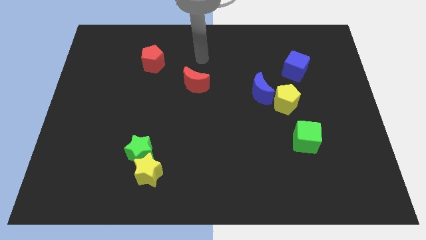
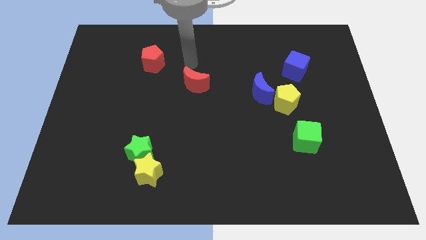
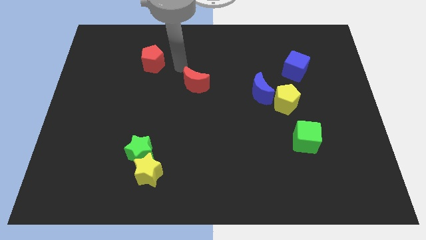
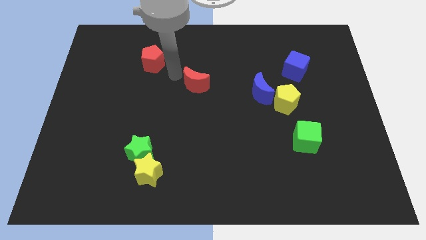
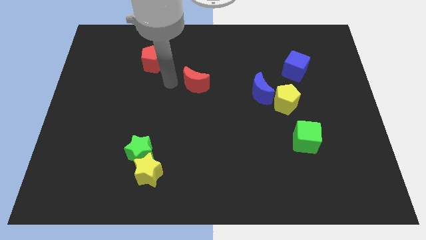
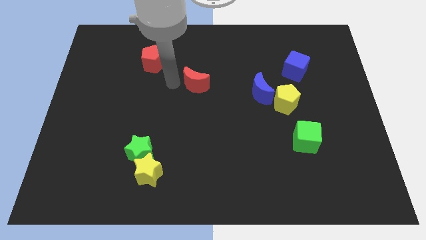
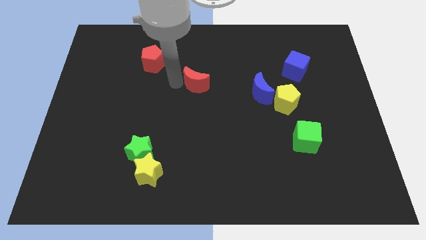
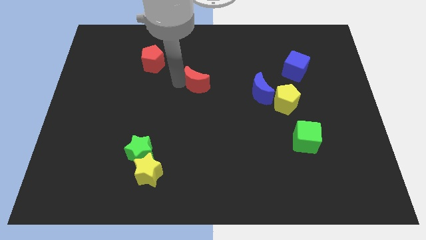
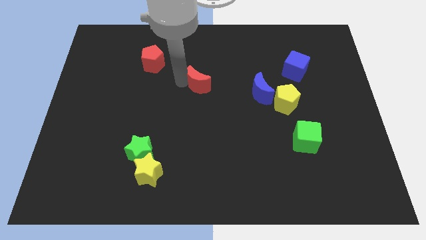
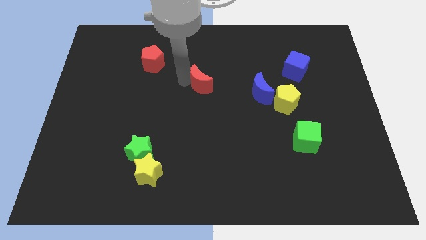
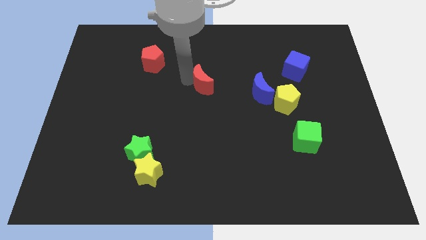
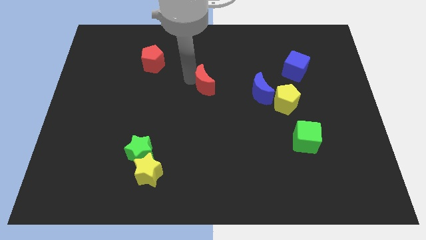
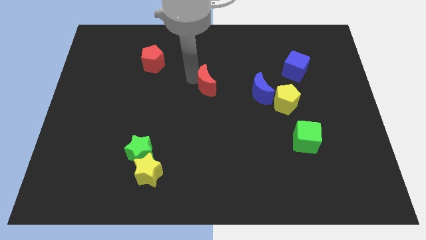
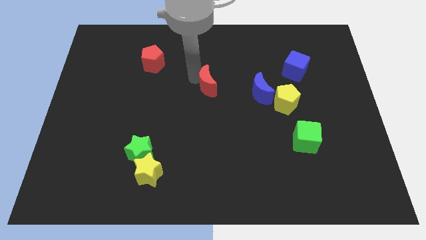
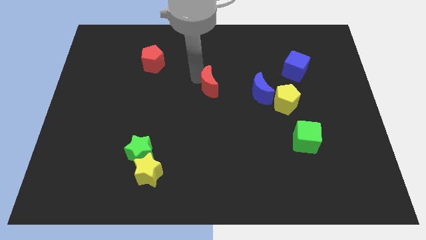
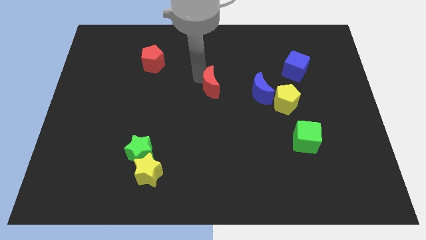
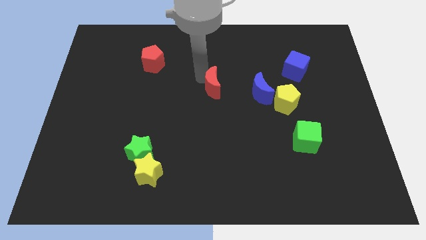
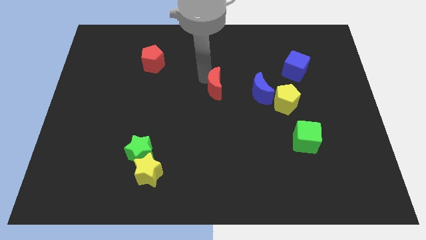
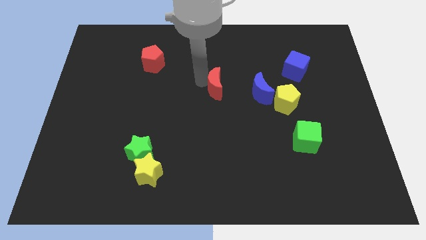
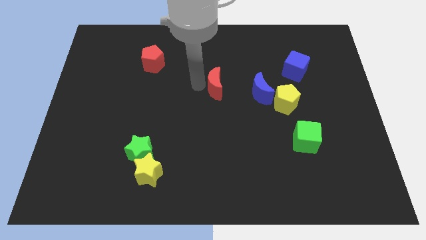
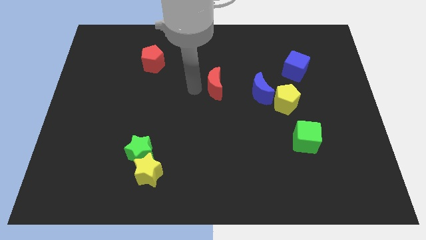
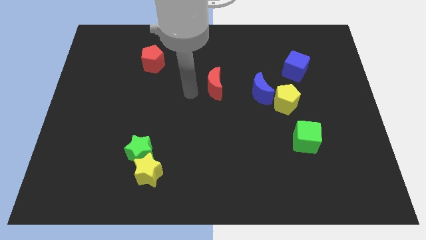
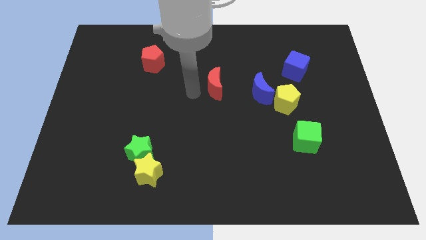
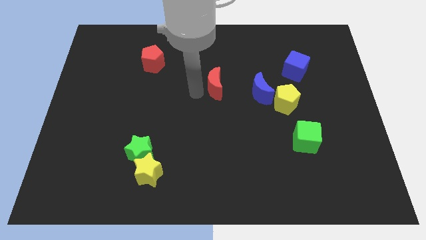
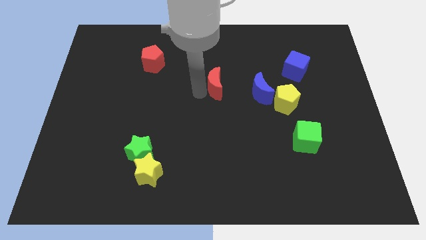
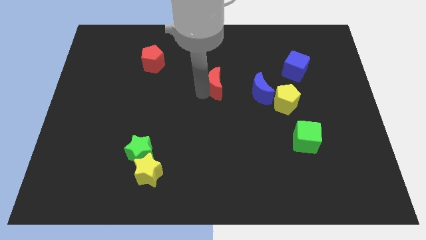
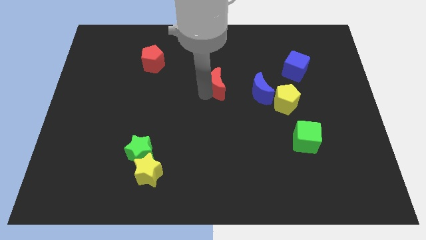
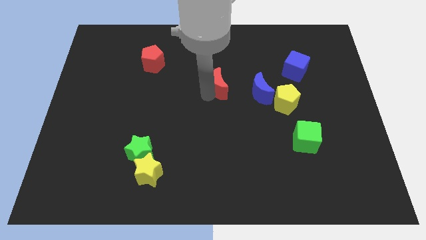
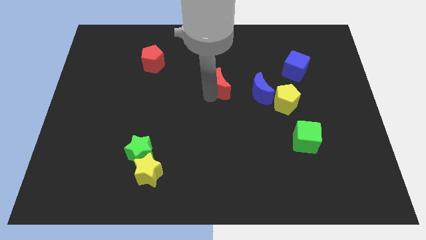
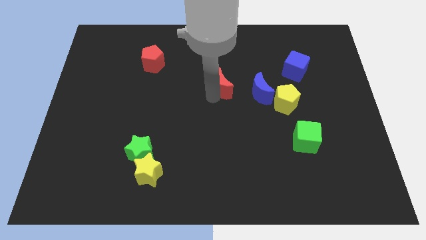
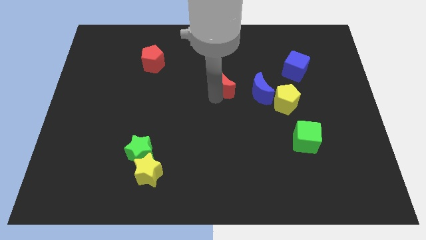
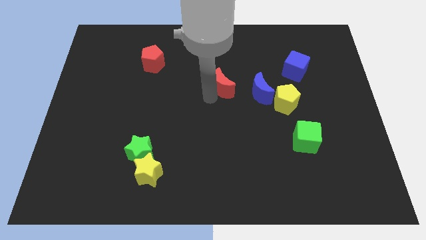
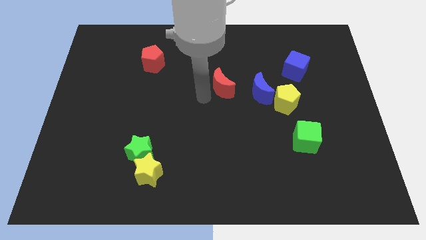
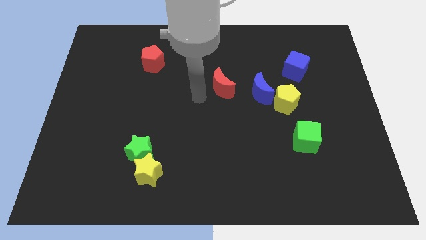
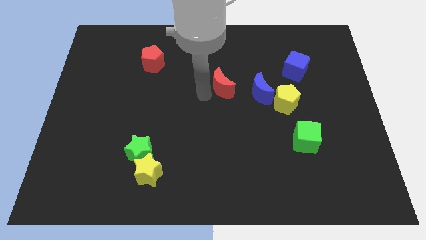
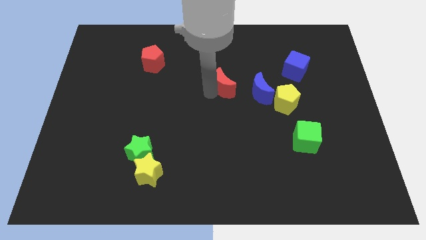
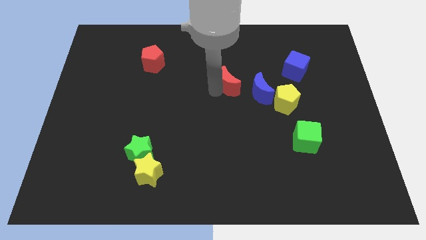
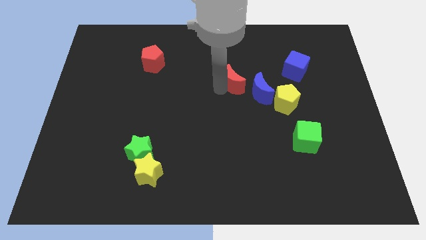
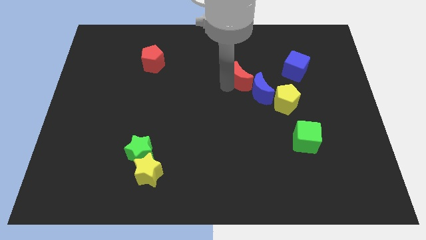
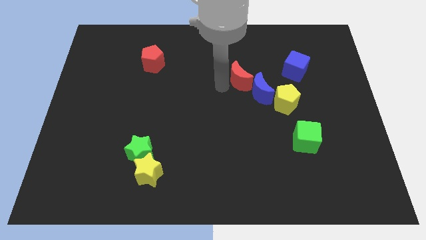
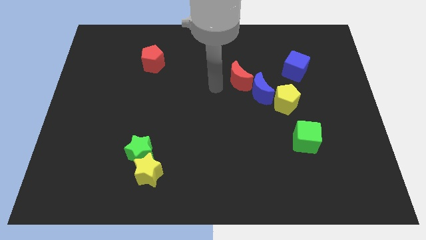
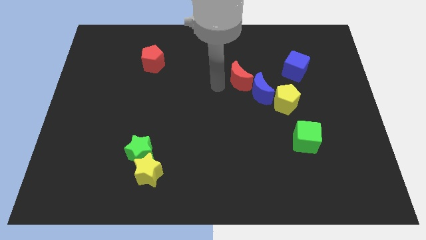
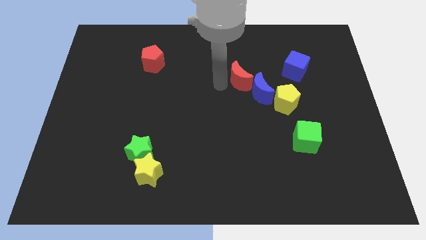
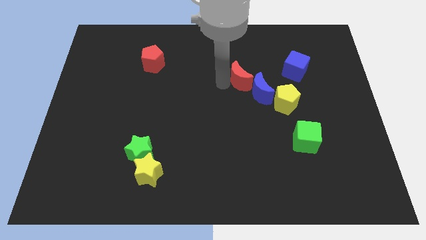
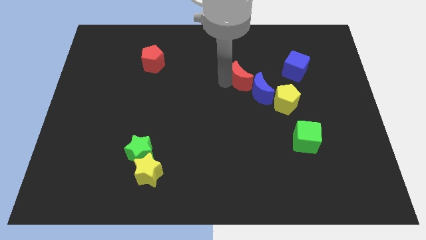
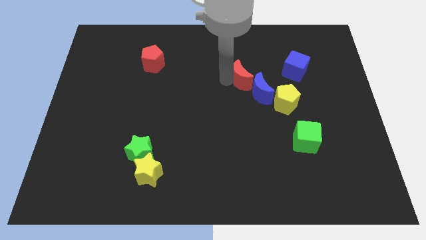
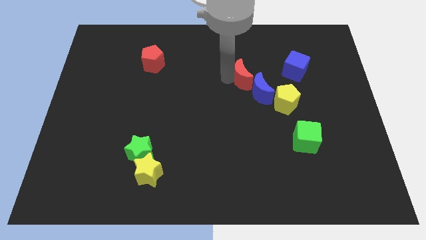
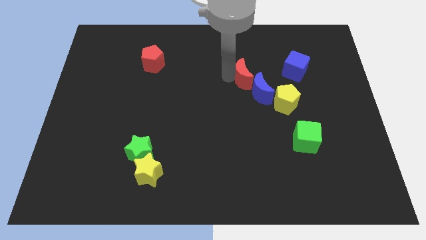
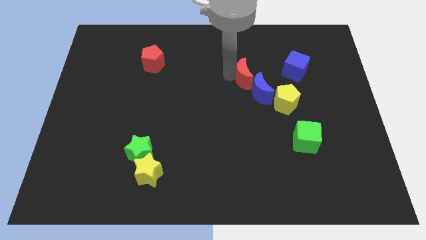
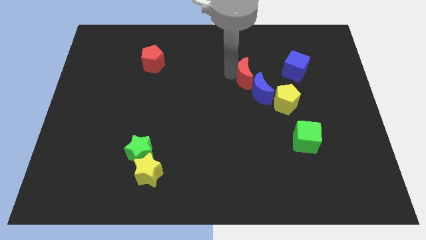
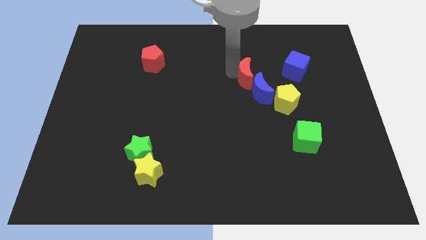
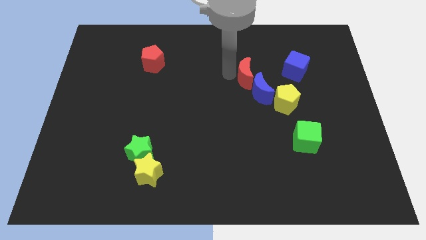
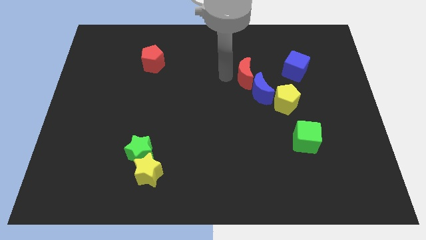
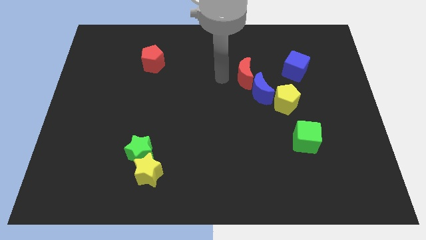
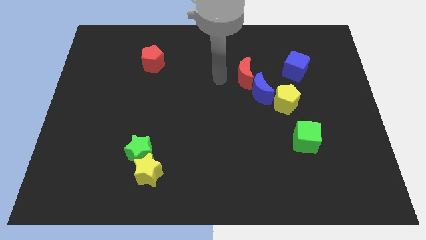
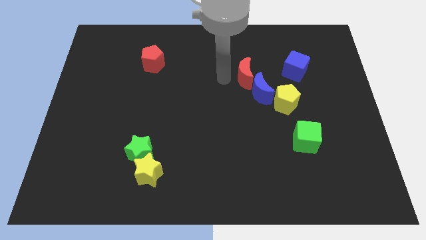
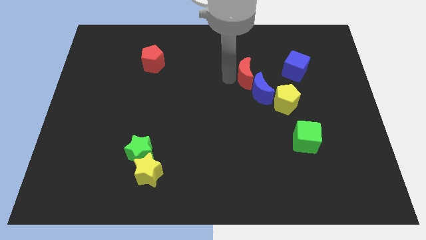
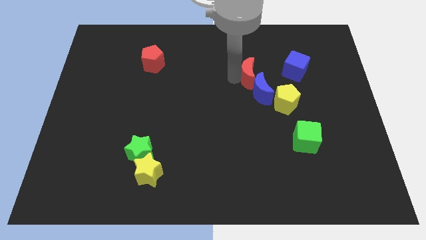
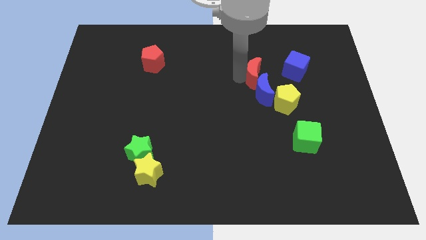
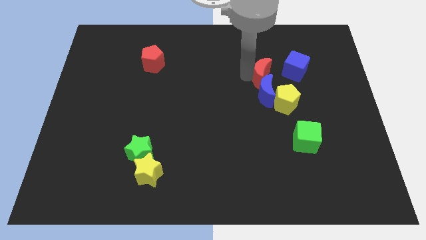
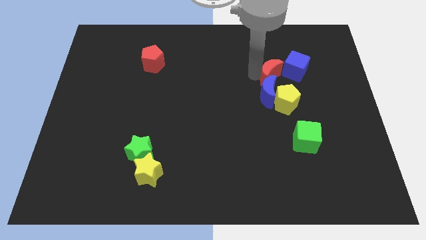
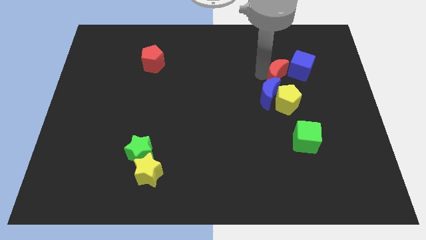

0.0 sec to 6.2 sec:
push the red moon right

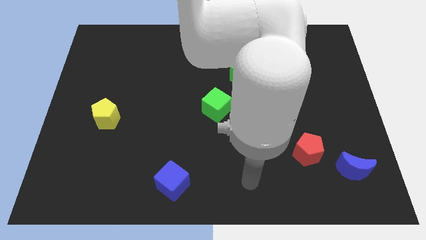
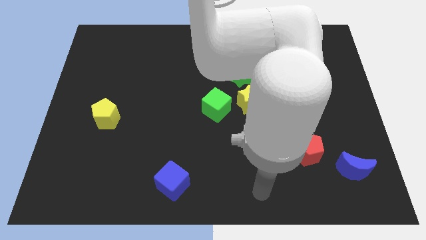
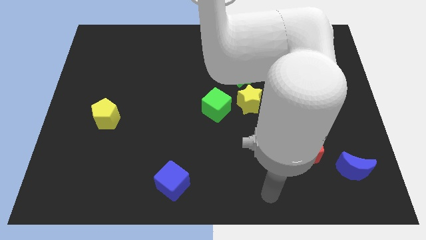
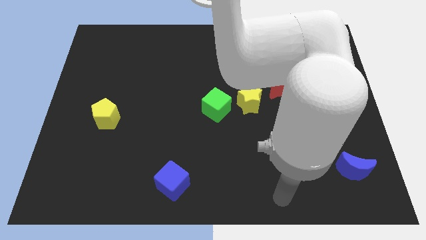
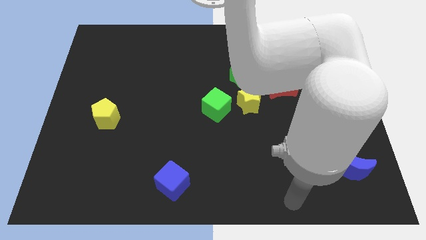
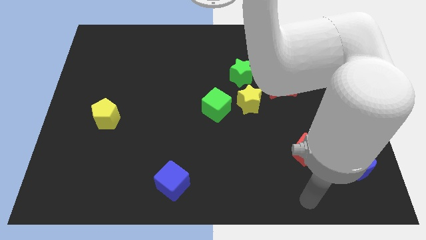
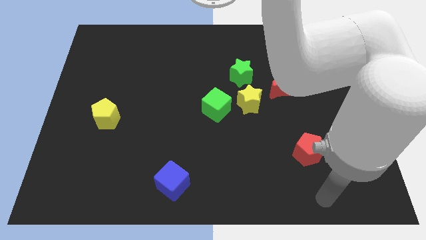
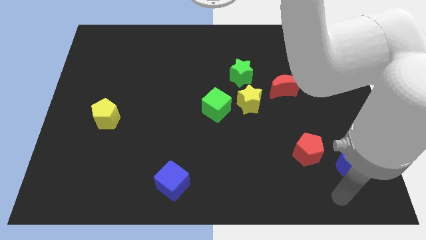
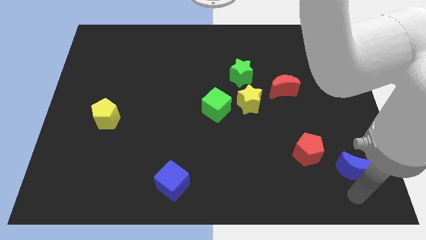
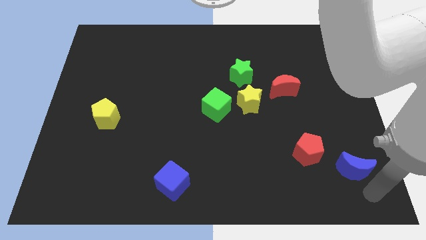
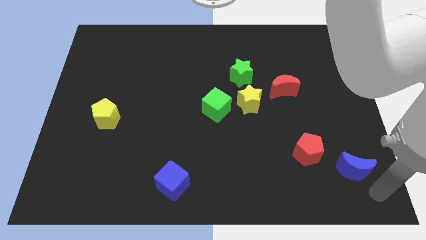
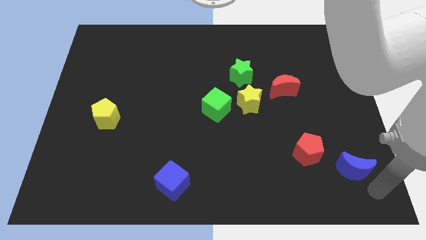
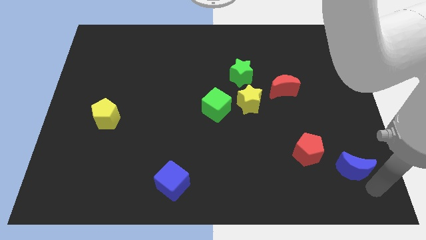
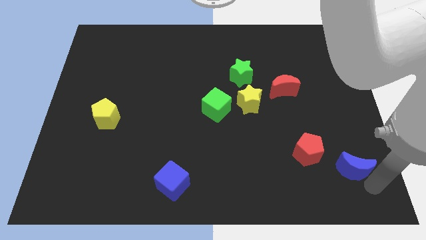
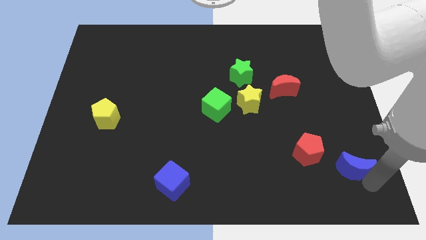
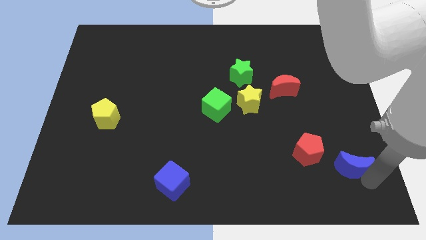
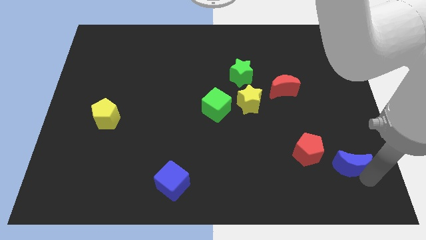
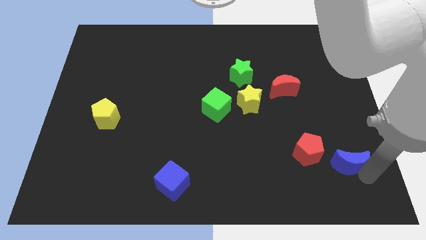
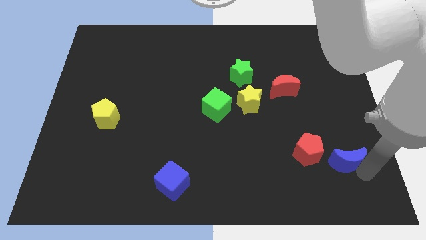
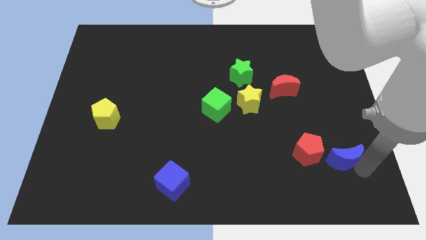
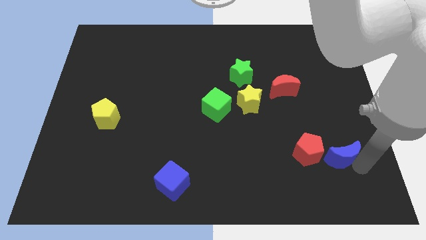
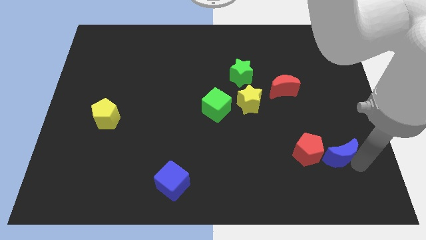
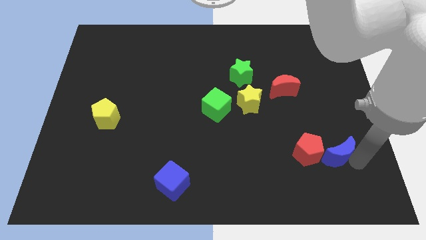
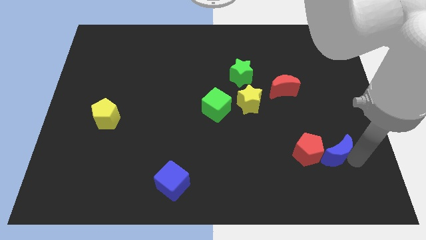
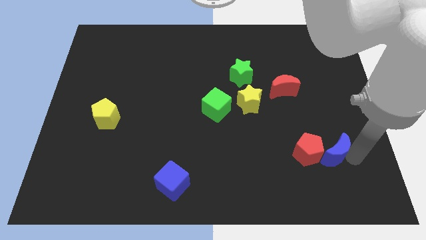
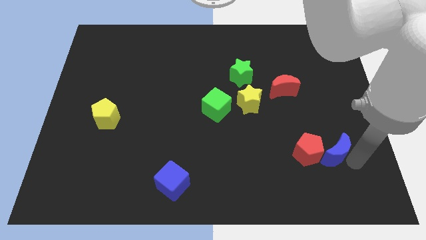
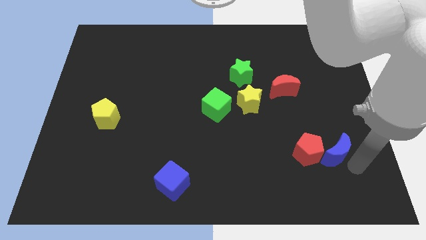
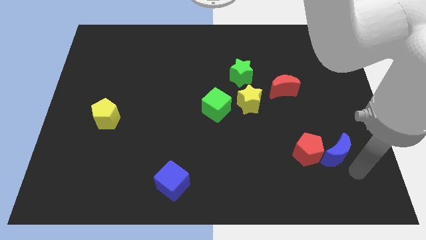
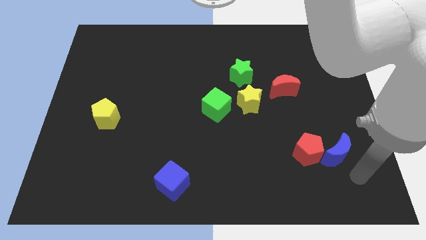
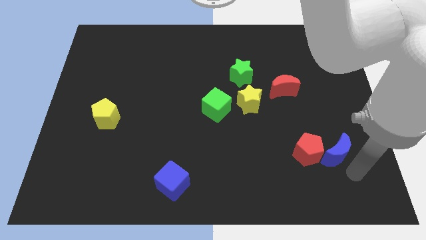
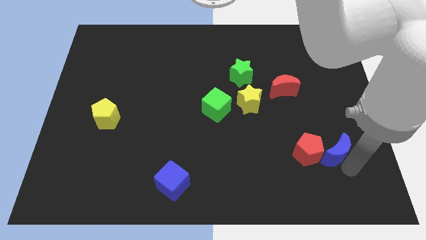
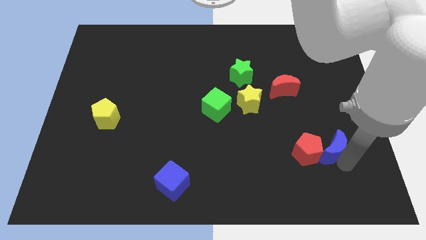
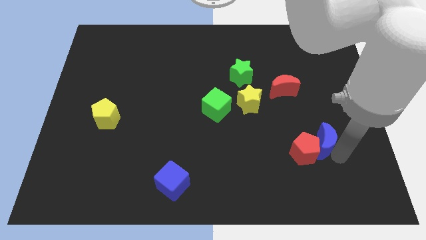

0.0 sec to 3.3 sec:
move the blue moon diagonally up and to the left slightly
